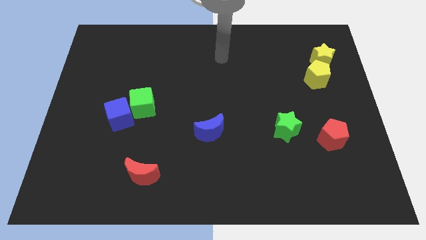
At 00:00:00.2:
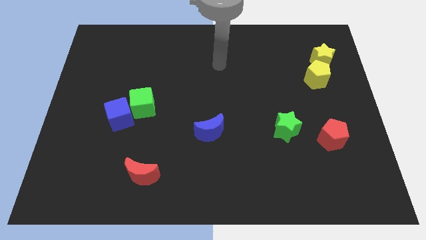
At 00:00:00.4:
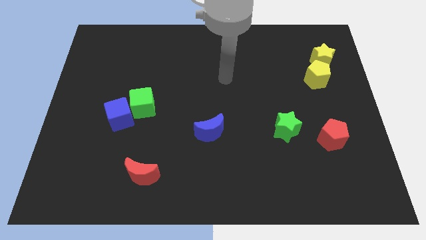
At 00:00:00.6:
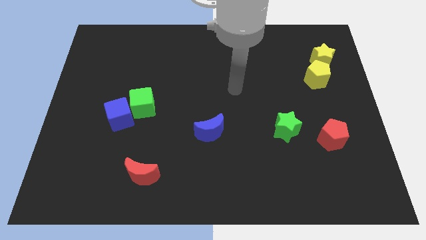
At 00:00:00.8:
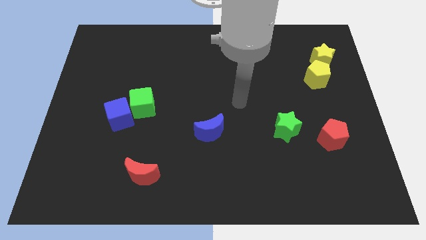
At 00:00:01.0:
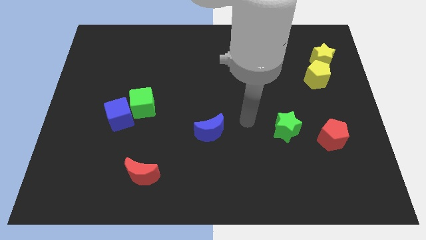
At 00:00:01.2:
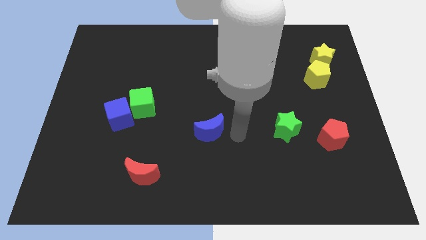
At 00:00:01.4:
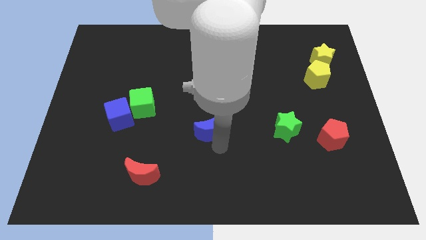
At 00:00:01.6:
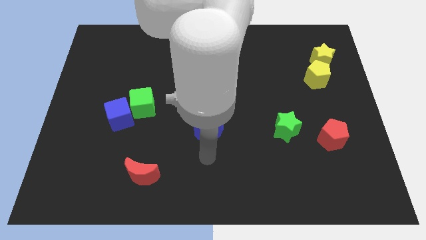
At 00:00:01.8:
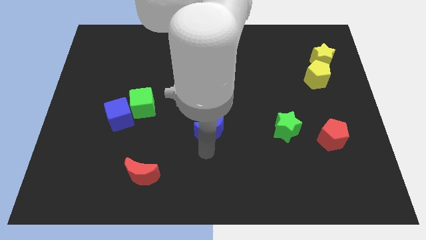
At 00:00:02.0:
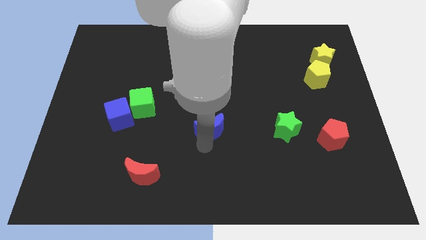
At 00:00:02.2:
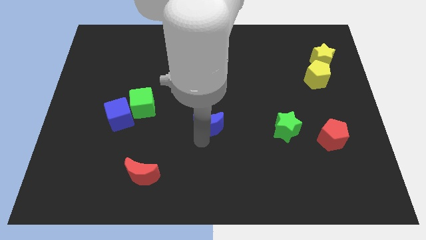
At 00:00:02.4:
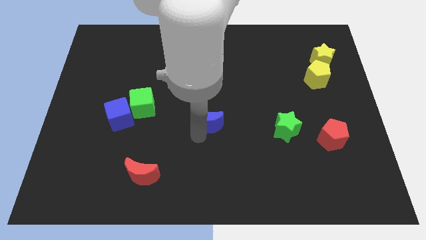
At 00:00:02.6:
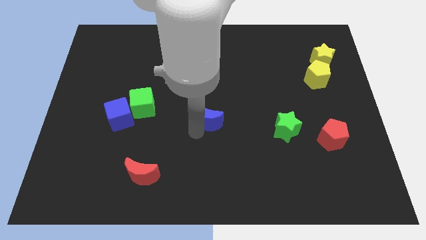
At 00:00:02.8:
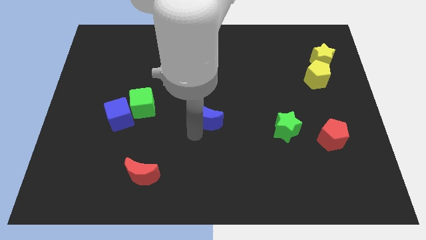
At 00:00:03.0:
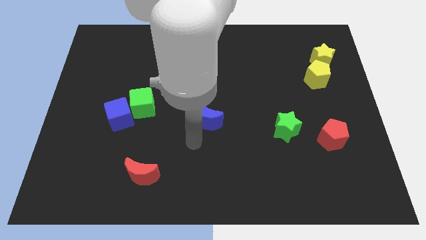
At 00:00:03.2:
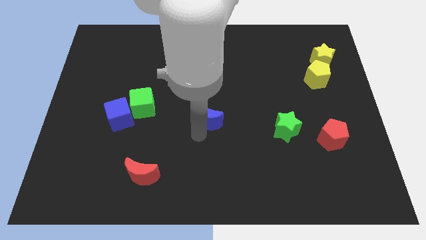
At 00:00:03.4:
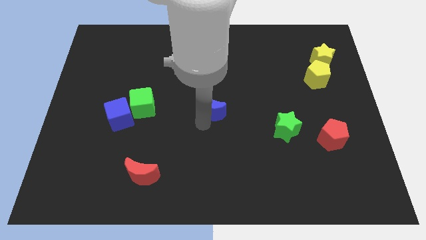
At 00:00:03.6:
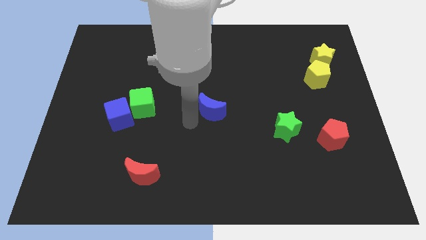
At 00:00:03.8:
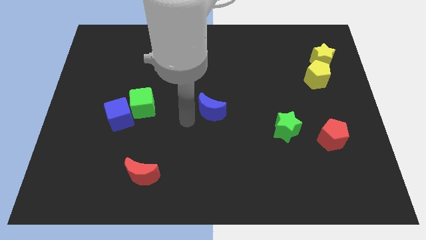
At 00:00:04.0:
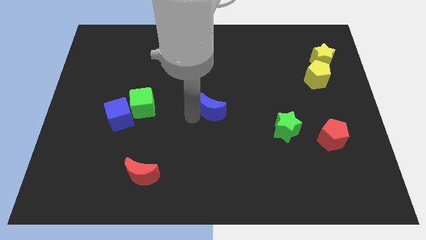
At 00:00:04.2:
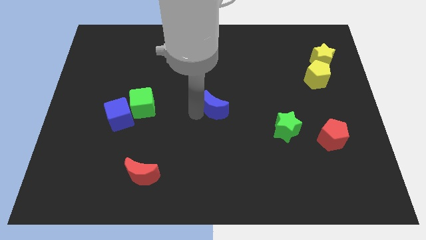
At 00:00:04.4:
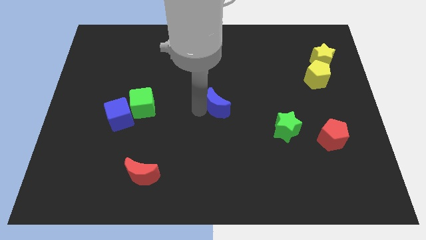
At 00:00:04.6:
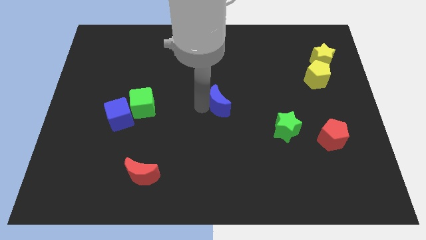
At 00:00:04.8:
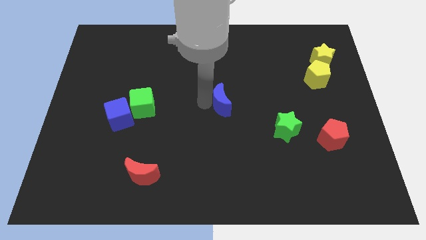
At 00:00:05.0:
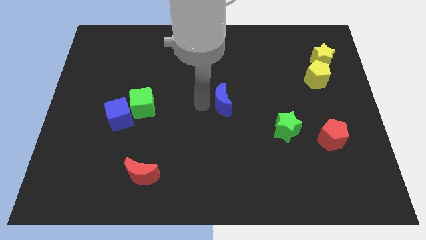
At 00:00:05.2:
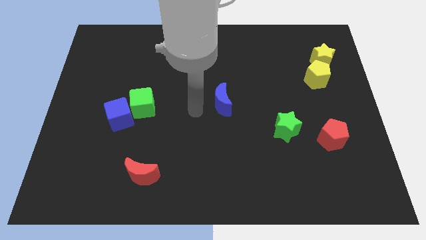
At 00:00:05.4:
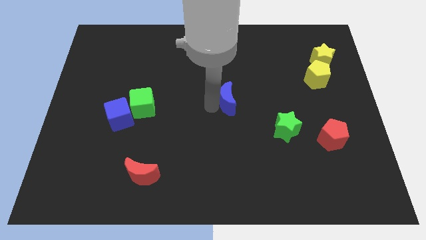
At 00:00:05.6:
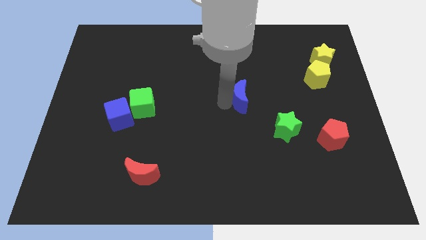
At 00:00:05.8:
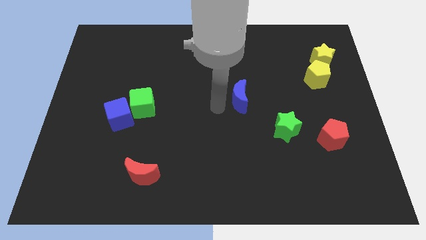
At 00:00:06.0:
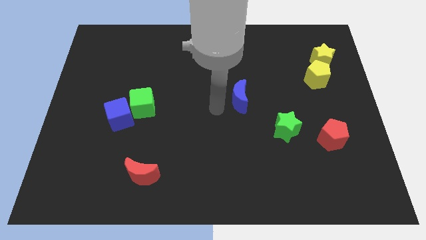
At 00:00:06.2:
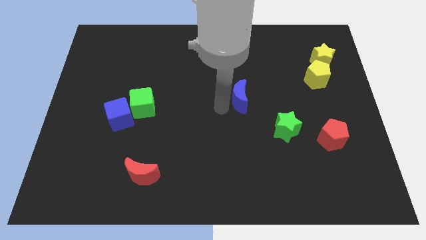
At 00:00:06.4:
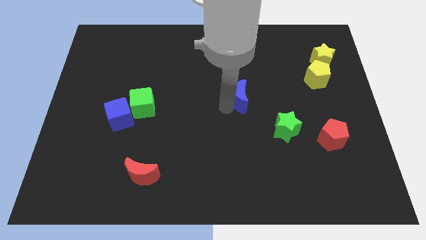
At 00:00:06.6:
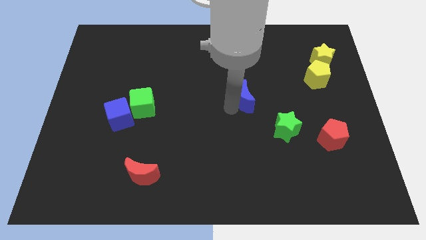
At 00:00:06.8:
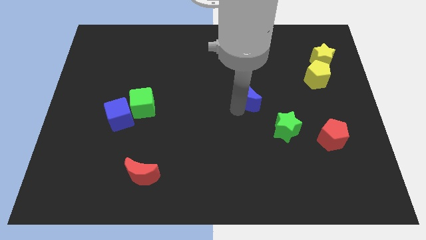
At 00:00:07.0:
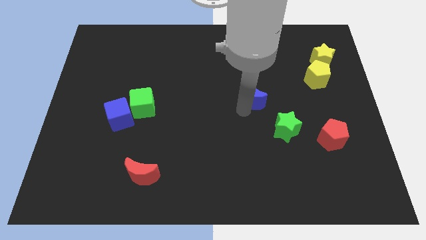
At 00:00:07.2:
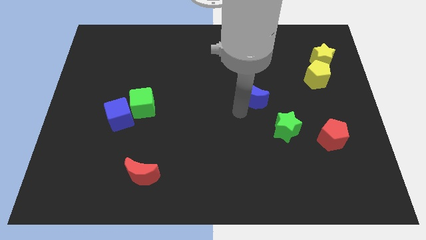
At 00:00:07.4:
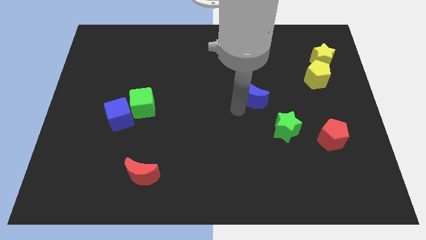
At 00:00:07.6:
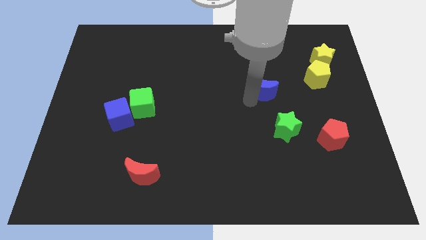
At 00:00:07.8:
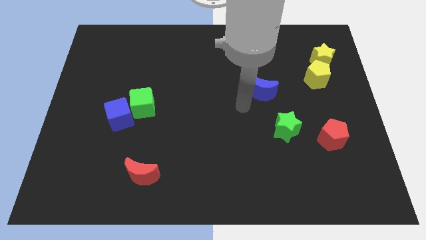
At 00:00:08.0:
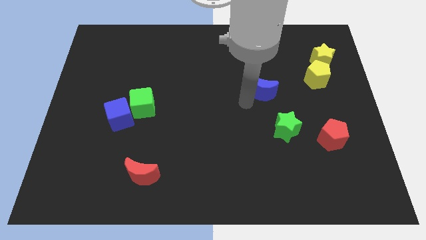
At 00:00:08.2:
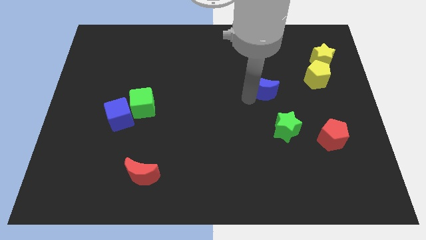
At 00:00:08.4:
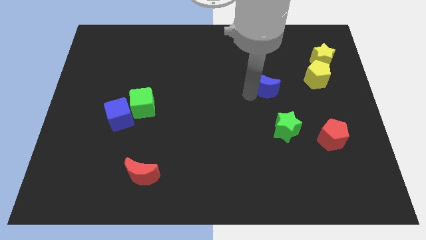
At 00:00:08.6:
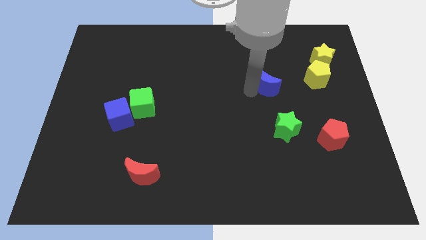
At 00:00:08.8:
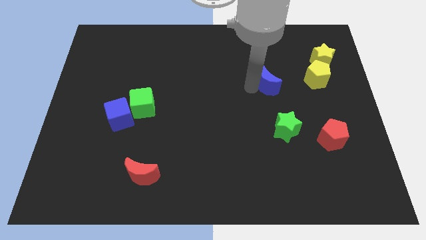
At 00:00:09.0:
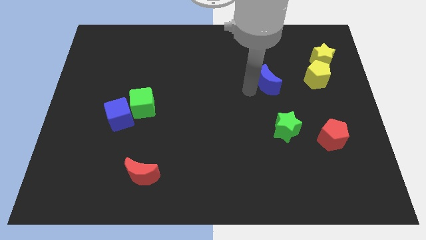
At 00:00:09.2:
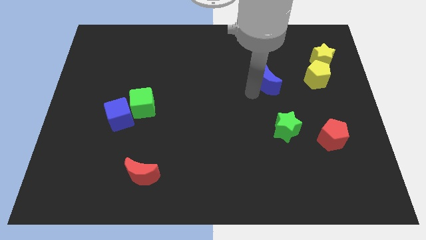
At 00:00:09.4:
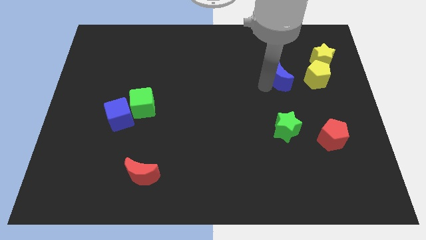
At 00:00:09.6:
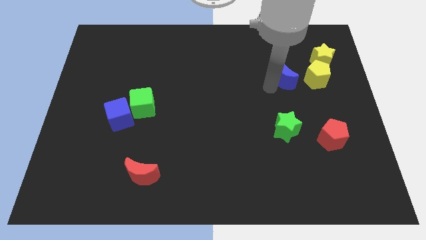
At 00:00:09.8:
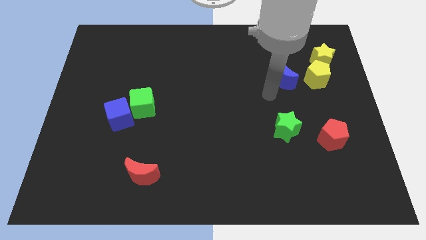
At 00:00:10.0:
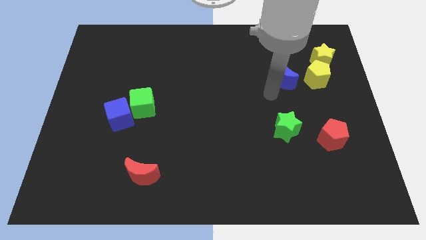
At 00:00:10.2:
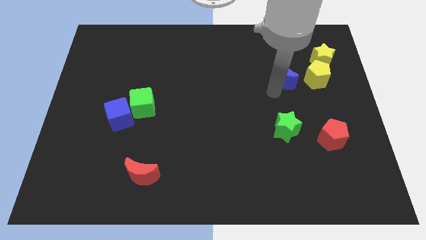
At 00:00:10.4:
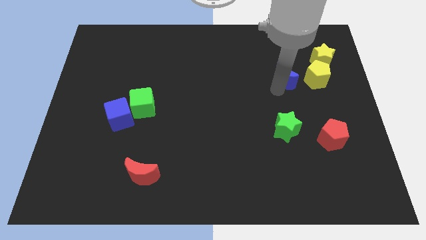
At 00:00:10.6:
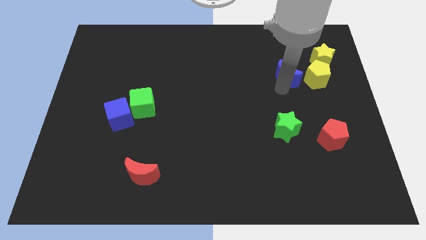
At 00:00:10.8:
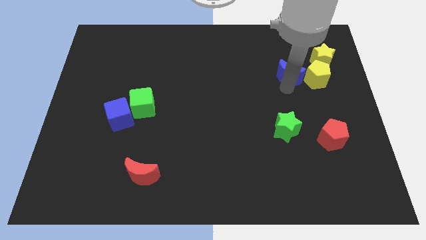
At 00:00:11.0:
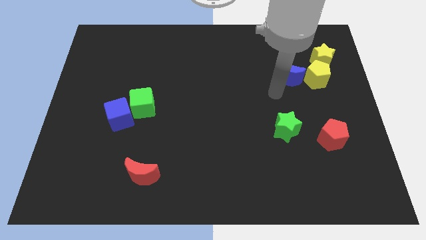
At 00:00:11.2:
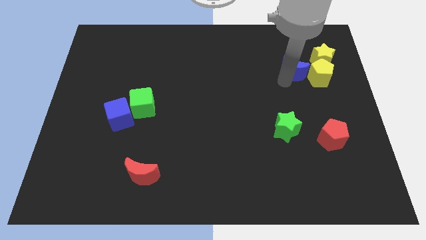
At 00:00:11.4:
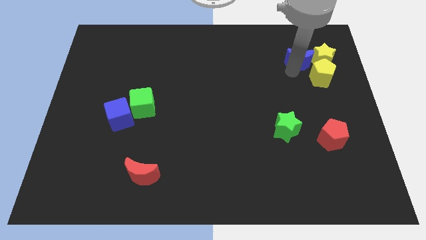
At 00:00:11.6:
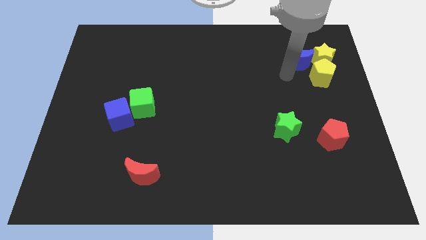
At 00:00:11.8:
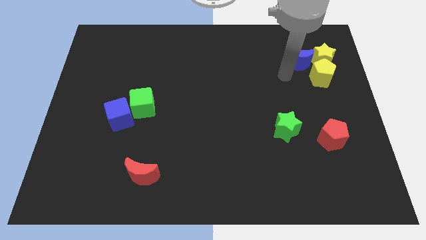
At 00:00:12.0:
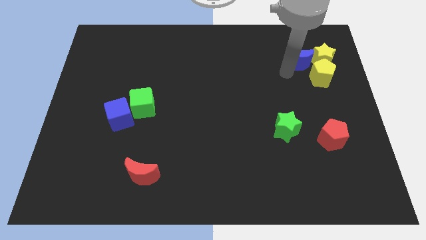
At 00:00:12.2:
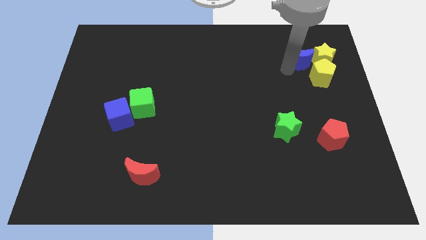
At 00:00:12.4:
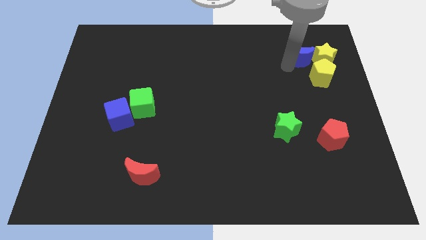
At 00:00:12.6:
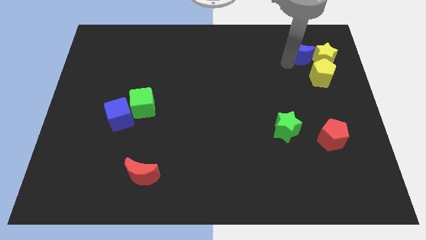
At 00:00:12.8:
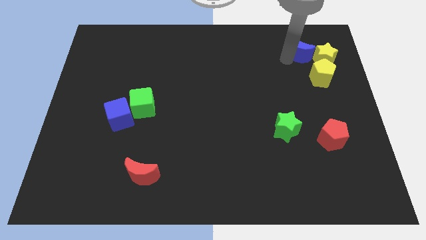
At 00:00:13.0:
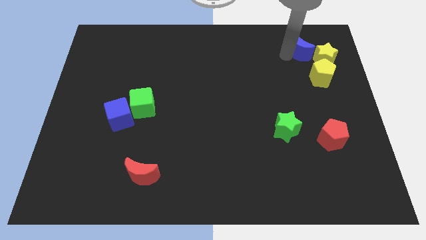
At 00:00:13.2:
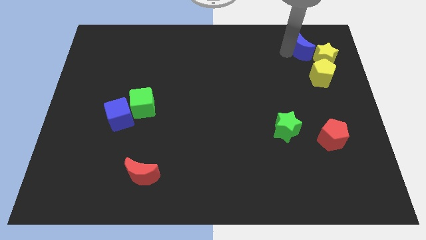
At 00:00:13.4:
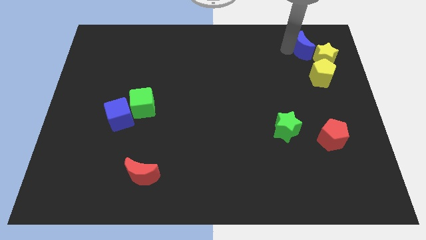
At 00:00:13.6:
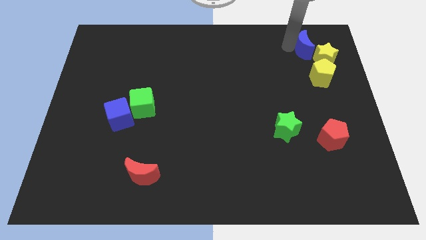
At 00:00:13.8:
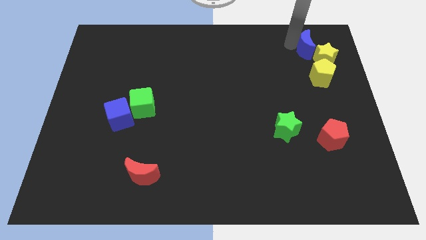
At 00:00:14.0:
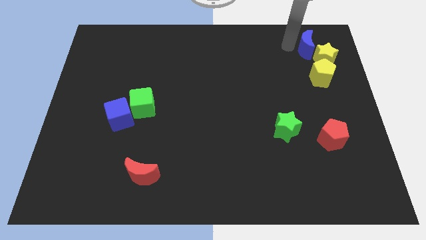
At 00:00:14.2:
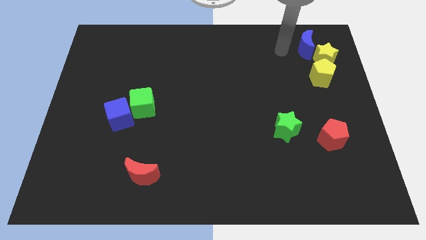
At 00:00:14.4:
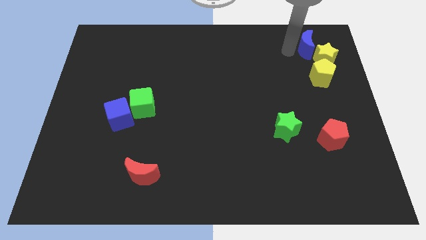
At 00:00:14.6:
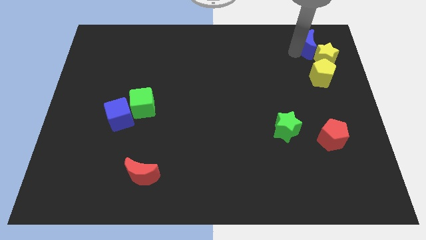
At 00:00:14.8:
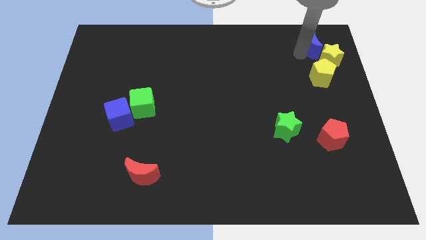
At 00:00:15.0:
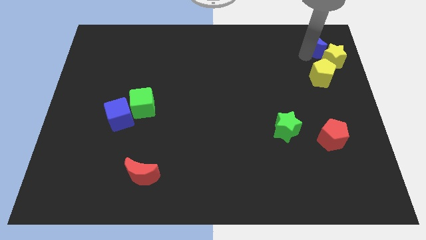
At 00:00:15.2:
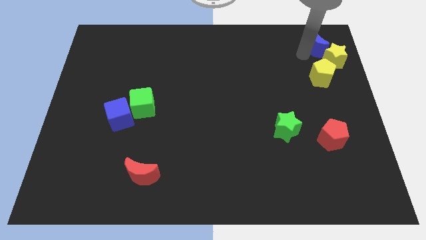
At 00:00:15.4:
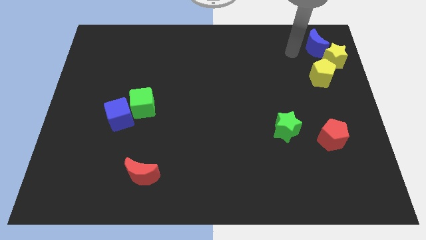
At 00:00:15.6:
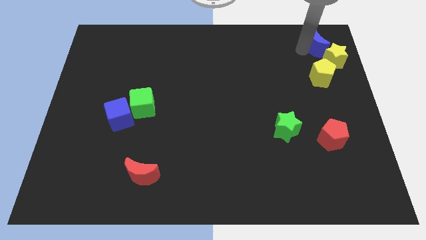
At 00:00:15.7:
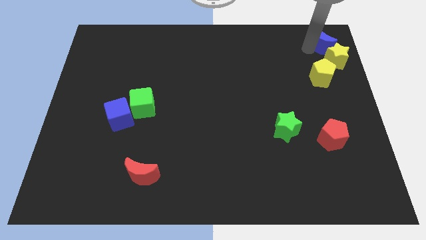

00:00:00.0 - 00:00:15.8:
push the blue moon to the upper right corner
